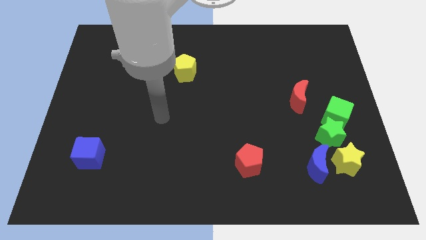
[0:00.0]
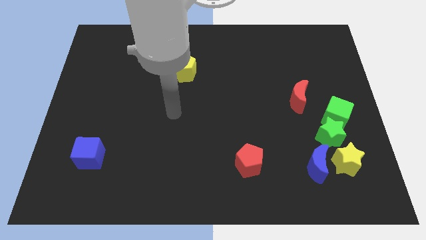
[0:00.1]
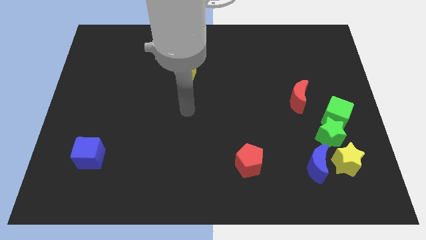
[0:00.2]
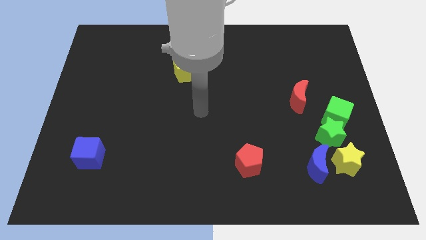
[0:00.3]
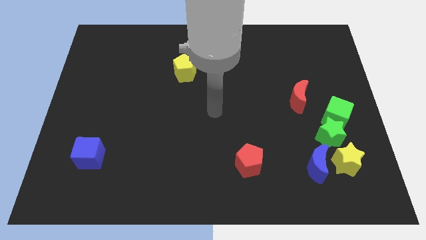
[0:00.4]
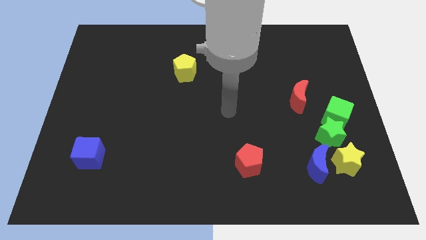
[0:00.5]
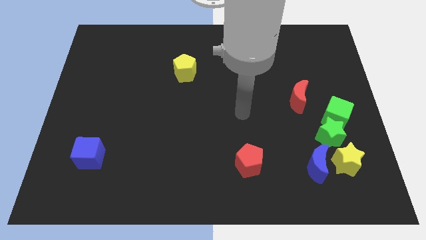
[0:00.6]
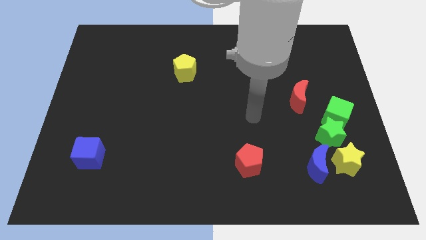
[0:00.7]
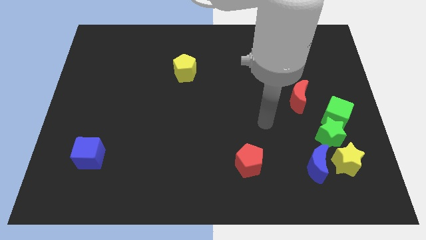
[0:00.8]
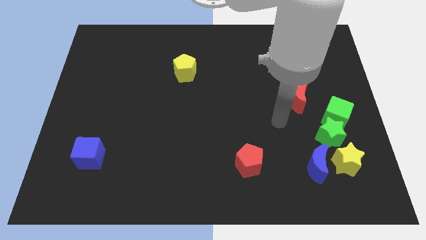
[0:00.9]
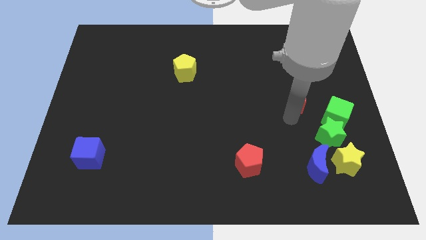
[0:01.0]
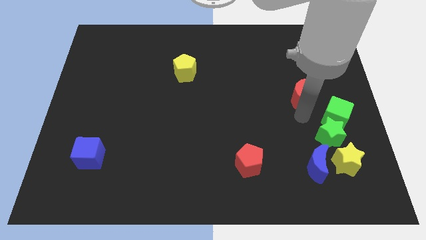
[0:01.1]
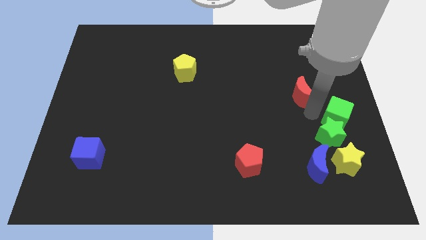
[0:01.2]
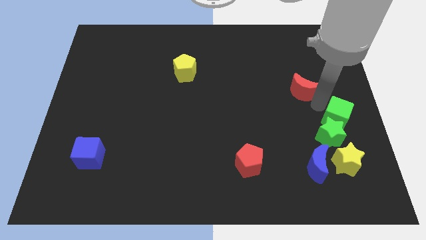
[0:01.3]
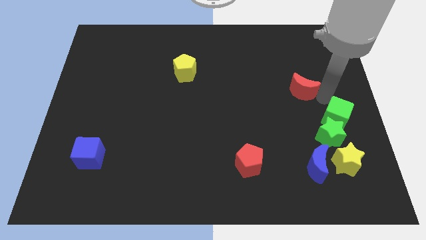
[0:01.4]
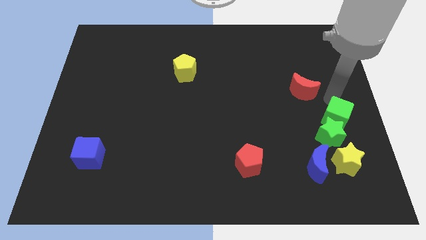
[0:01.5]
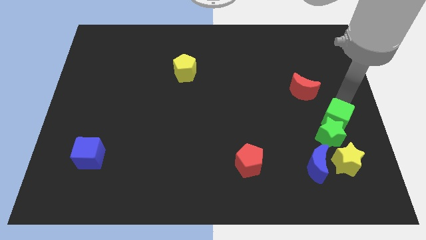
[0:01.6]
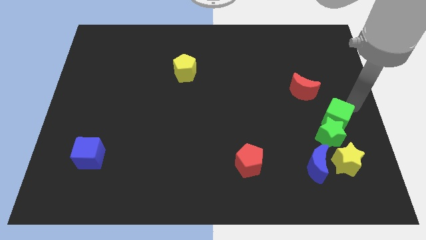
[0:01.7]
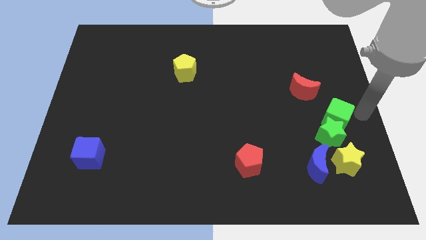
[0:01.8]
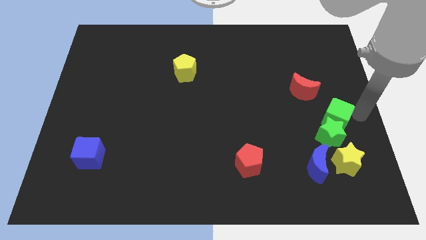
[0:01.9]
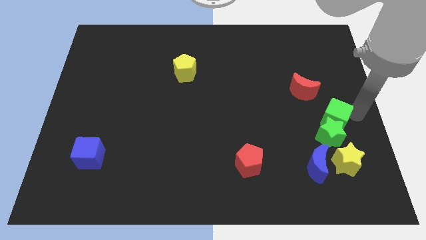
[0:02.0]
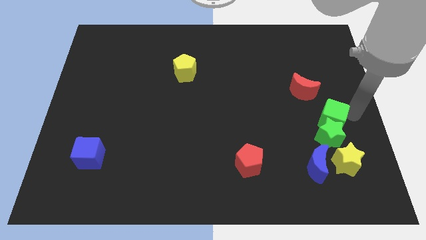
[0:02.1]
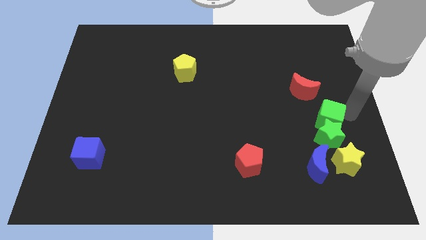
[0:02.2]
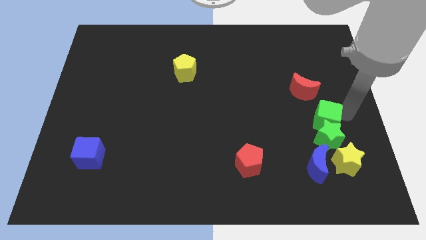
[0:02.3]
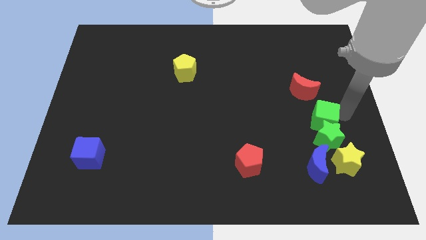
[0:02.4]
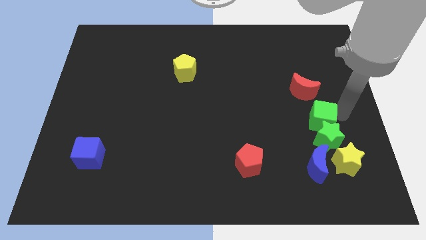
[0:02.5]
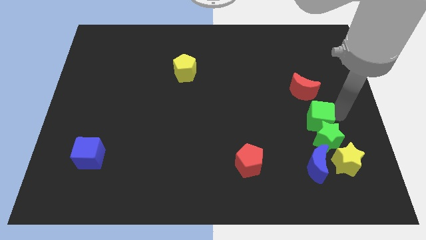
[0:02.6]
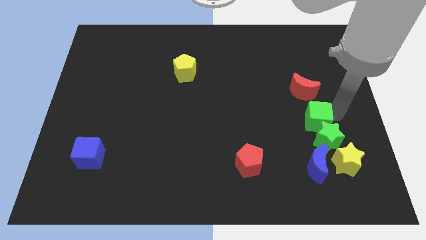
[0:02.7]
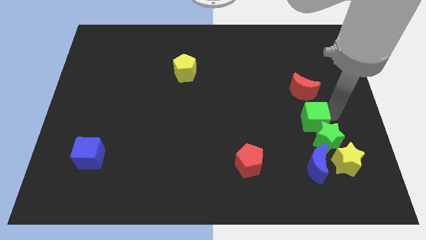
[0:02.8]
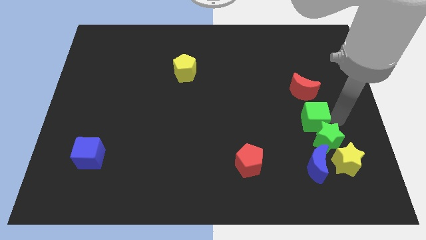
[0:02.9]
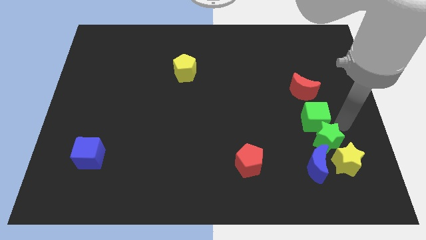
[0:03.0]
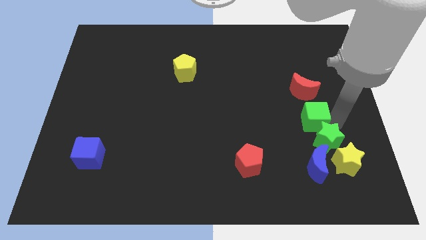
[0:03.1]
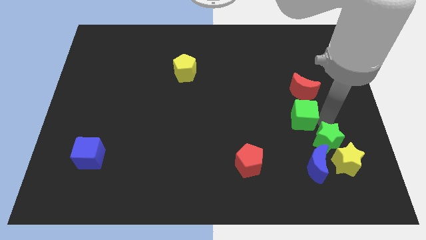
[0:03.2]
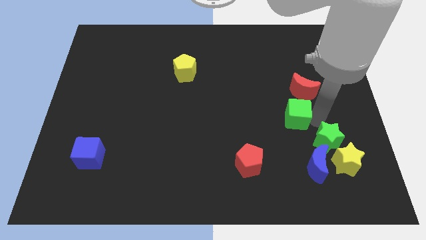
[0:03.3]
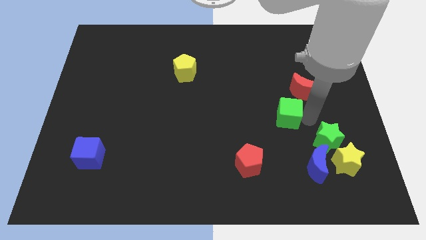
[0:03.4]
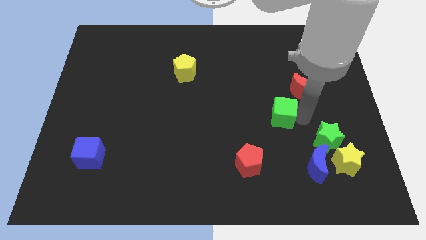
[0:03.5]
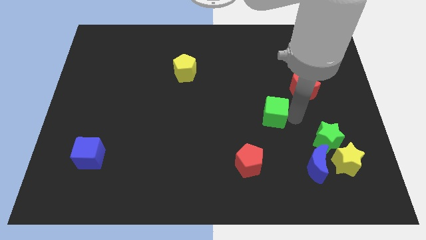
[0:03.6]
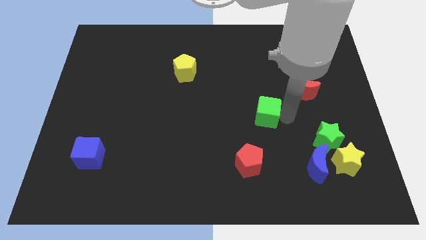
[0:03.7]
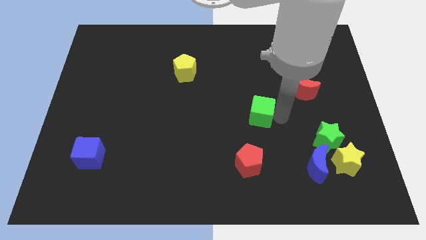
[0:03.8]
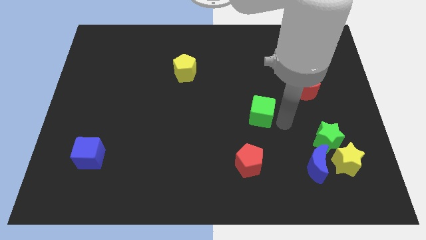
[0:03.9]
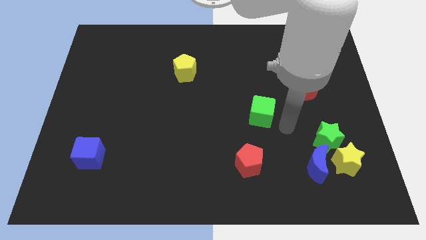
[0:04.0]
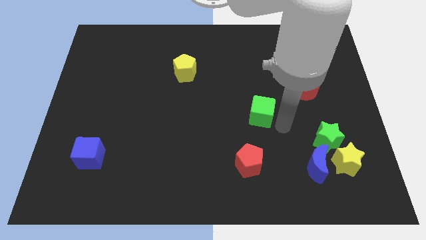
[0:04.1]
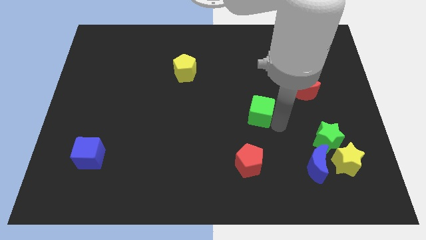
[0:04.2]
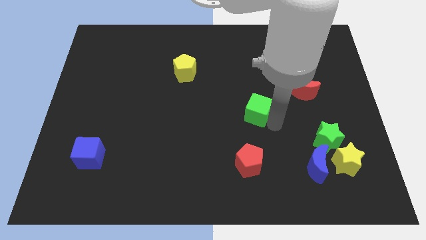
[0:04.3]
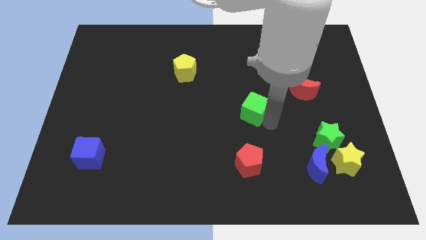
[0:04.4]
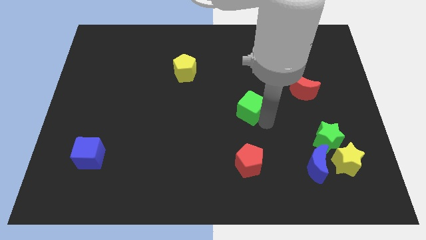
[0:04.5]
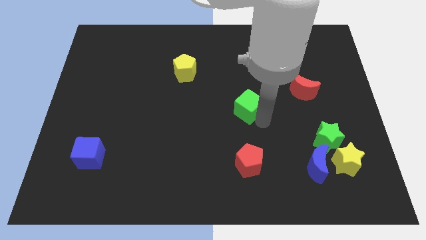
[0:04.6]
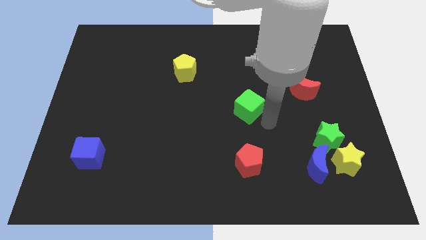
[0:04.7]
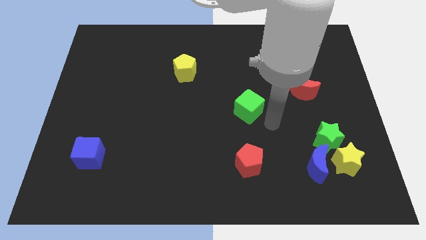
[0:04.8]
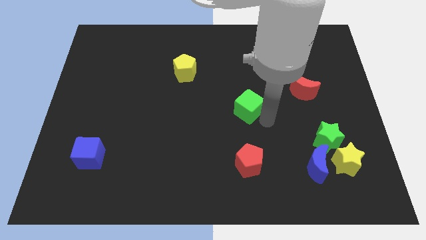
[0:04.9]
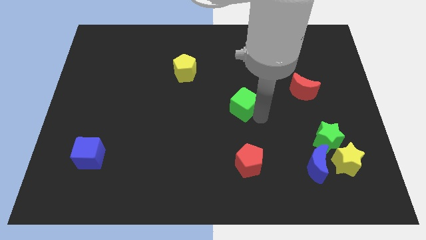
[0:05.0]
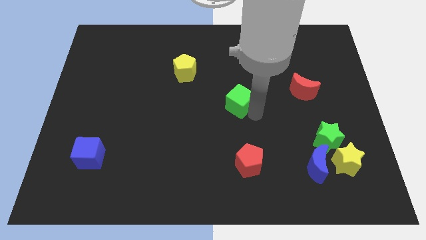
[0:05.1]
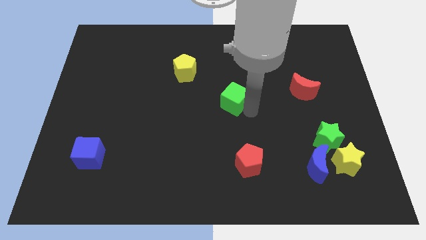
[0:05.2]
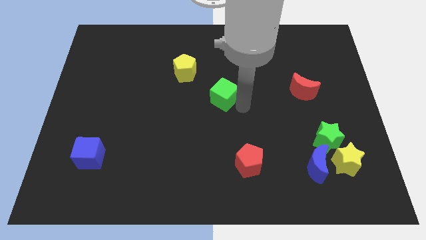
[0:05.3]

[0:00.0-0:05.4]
move the green cube diagonally down and to the right of the yellow pentagon

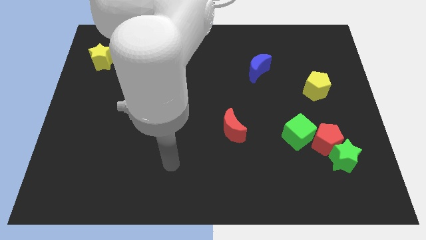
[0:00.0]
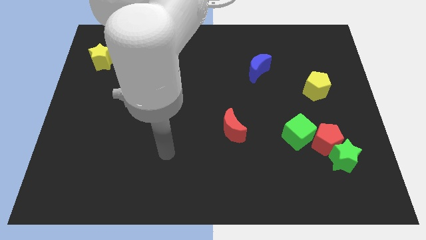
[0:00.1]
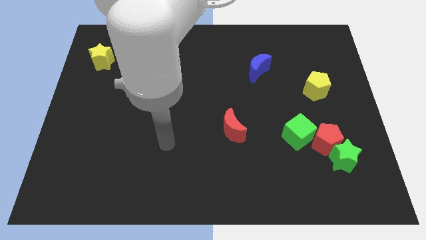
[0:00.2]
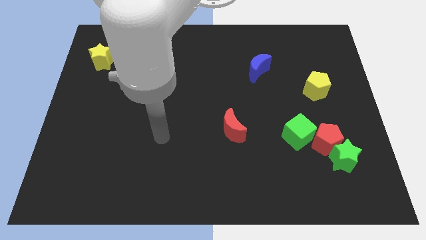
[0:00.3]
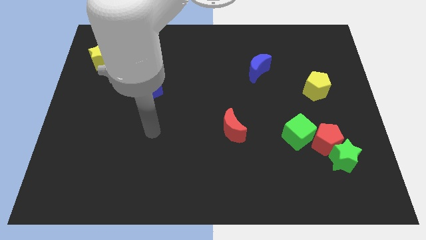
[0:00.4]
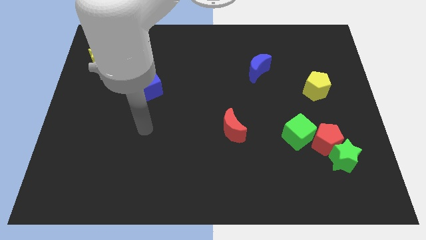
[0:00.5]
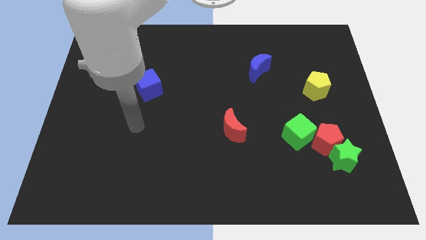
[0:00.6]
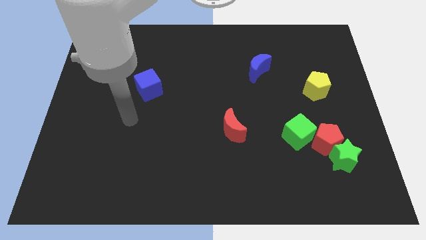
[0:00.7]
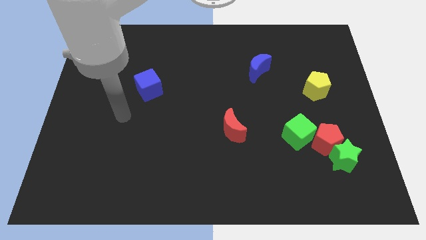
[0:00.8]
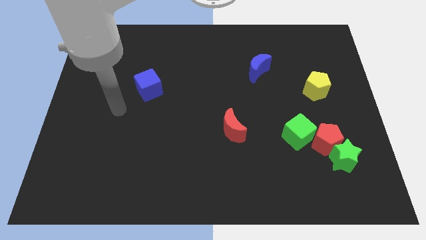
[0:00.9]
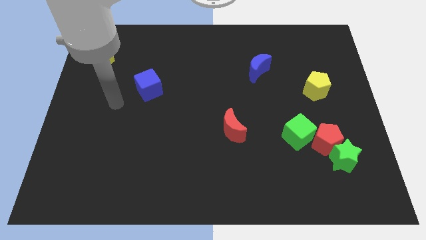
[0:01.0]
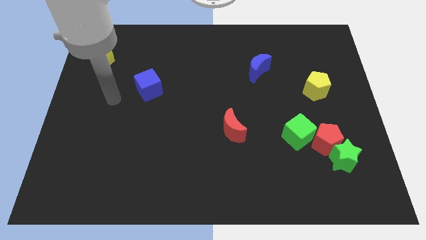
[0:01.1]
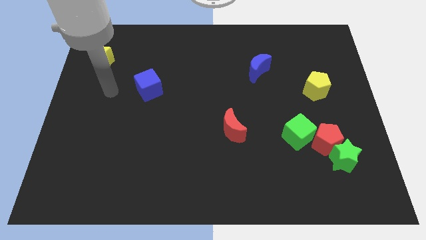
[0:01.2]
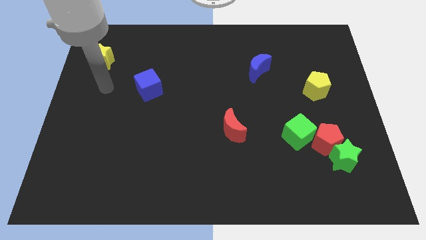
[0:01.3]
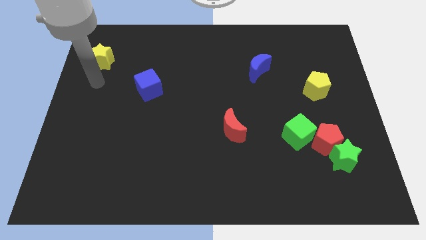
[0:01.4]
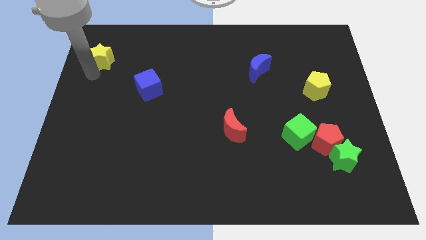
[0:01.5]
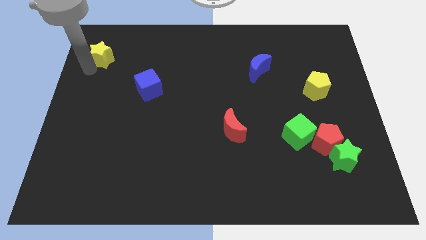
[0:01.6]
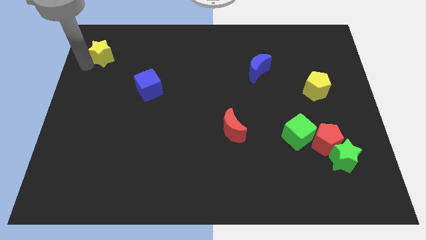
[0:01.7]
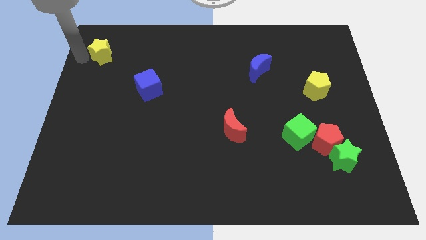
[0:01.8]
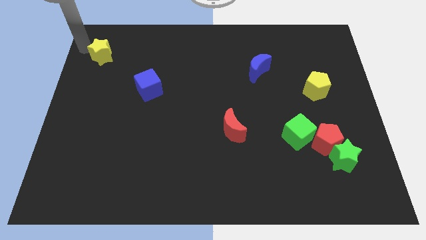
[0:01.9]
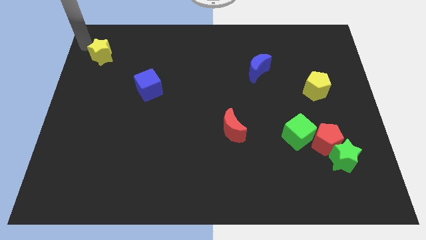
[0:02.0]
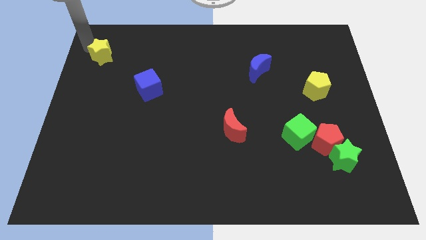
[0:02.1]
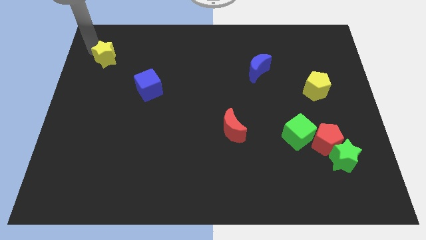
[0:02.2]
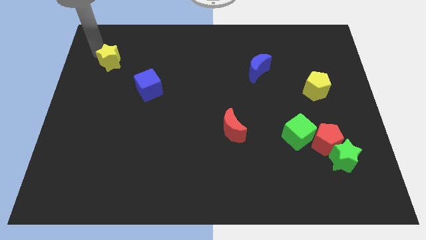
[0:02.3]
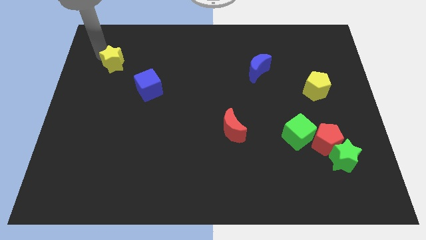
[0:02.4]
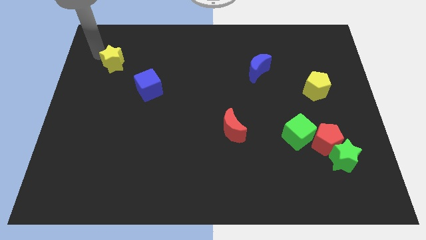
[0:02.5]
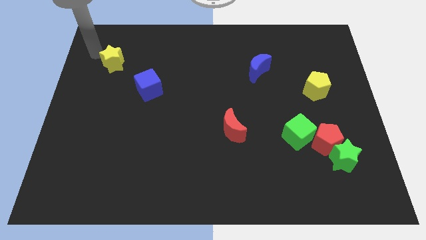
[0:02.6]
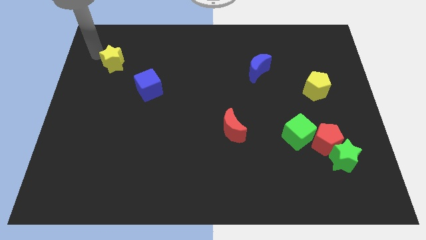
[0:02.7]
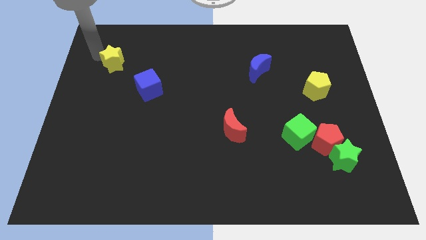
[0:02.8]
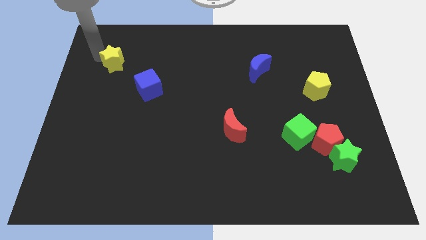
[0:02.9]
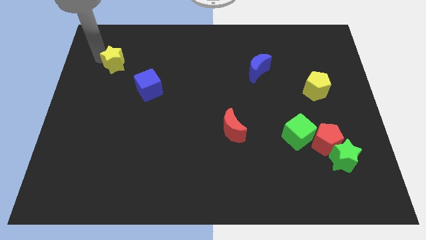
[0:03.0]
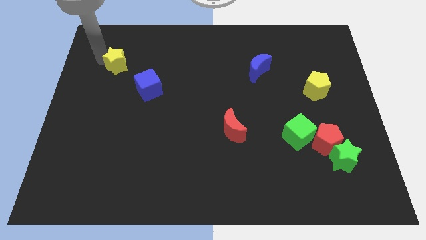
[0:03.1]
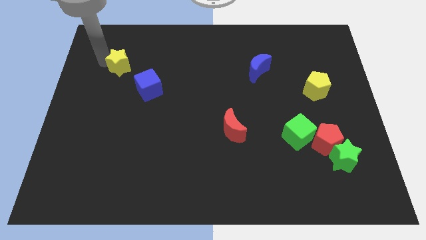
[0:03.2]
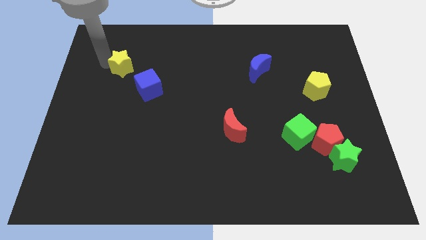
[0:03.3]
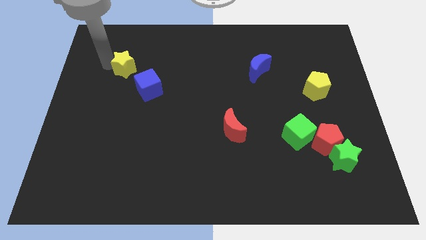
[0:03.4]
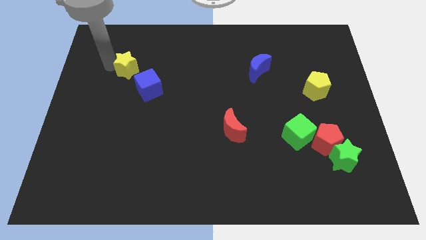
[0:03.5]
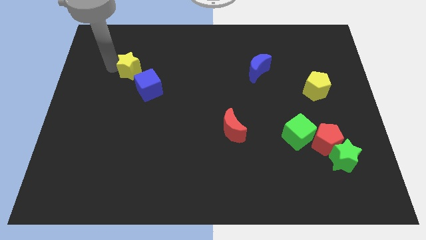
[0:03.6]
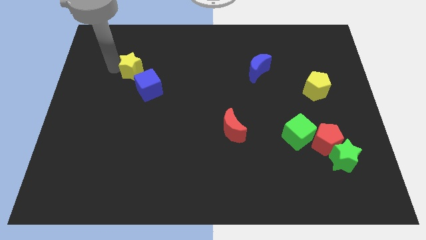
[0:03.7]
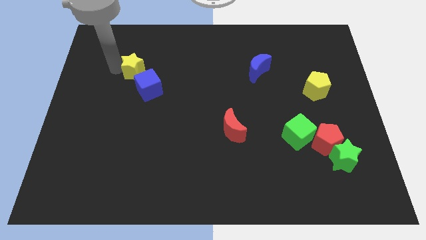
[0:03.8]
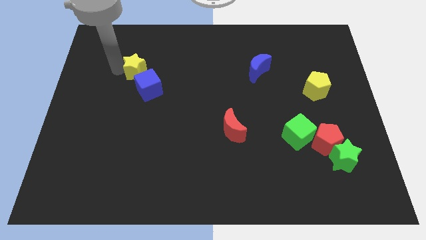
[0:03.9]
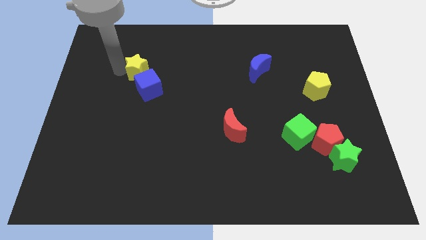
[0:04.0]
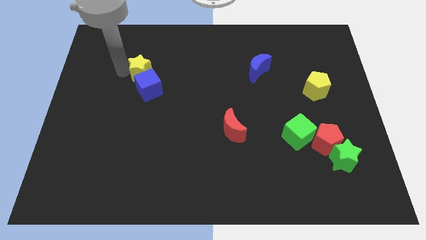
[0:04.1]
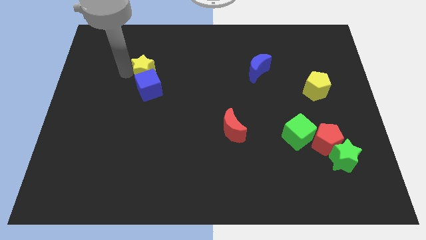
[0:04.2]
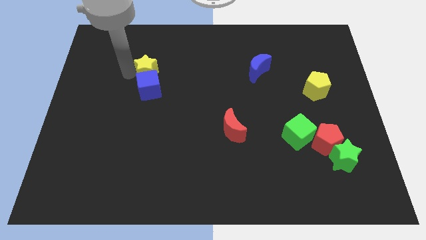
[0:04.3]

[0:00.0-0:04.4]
slide the yellow star diagonally up and to the right of the blue cube
